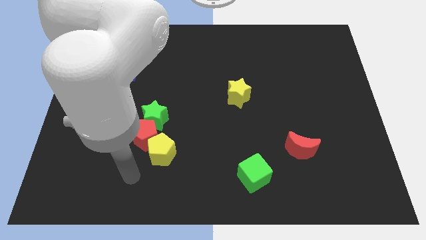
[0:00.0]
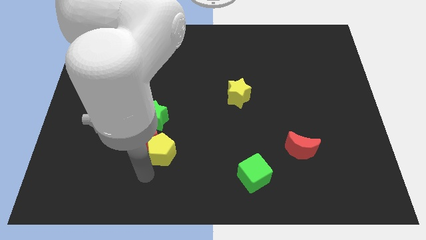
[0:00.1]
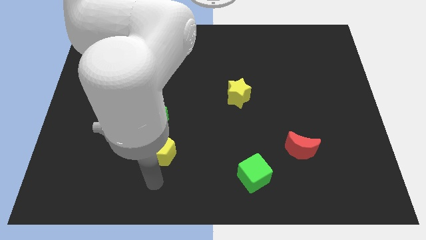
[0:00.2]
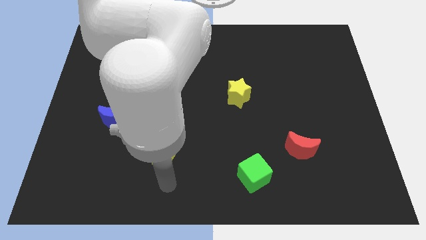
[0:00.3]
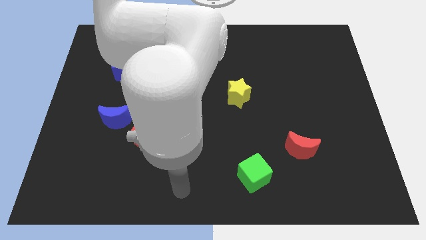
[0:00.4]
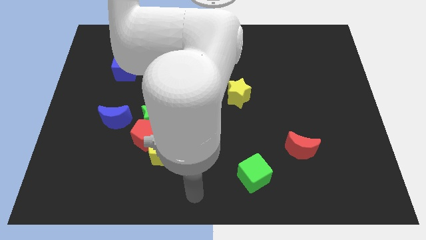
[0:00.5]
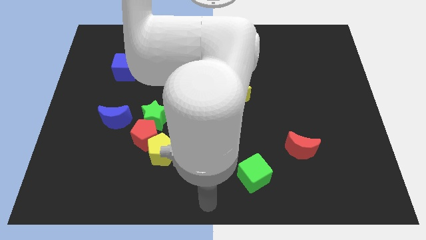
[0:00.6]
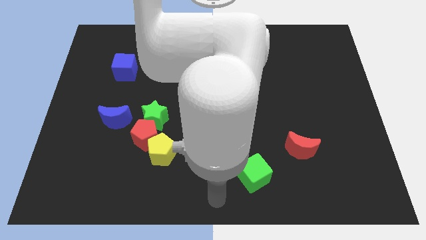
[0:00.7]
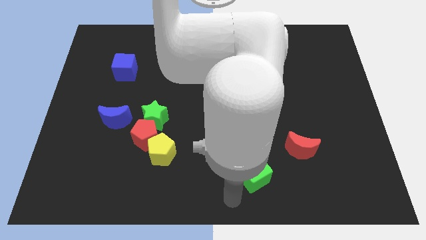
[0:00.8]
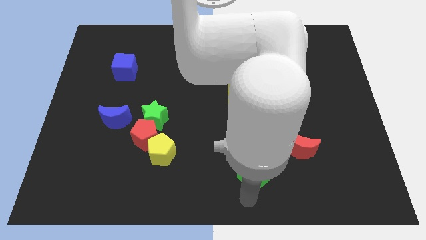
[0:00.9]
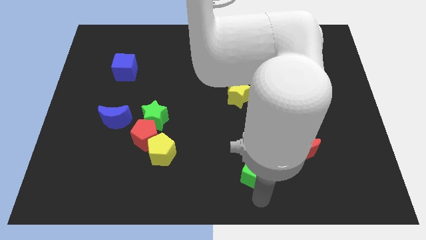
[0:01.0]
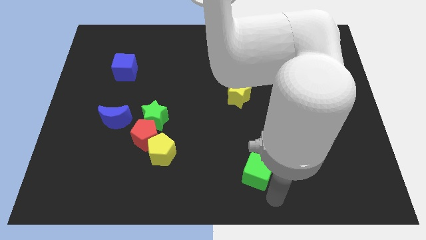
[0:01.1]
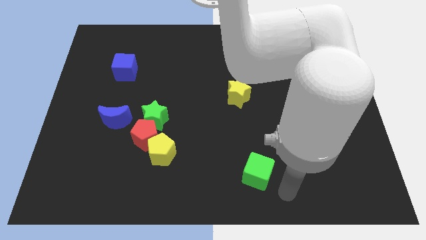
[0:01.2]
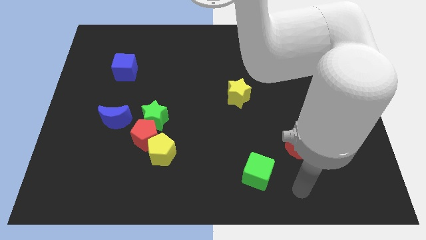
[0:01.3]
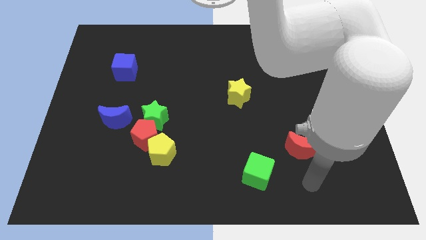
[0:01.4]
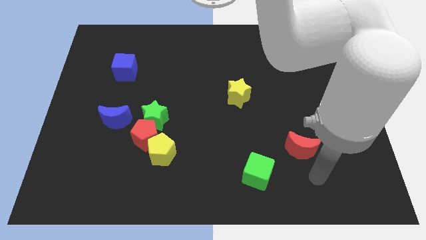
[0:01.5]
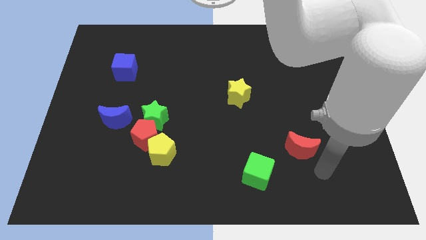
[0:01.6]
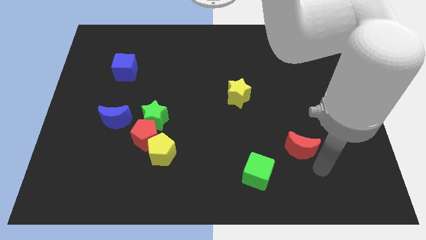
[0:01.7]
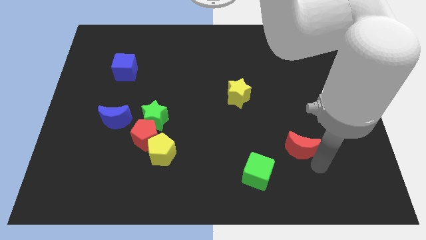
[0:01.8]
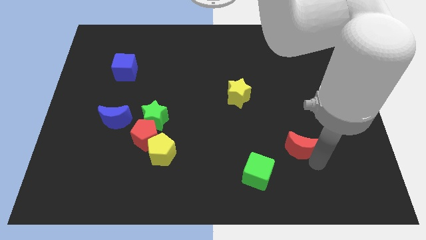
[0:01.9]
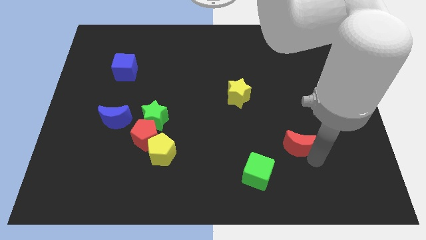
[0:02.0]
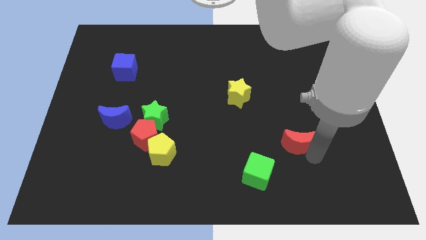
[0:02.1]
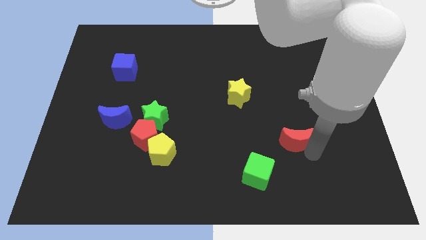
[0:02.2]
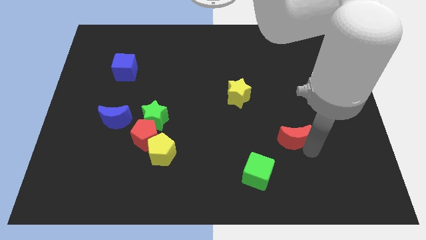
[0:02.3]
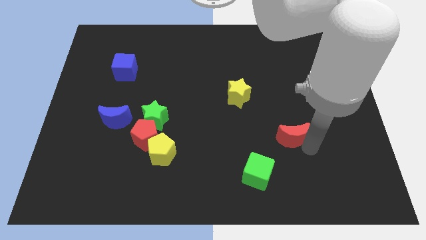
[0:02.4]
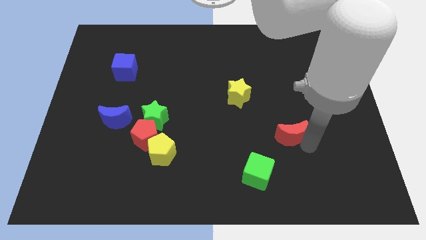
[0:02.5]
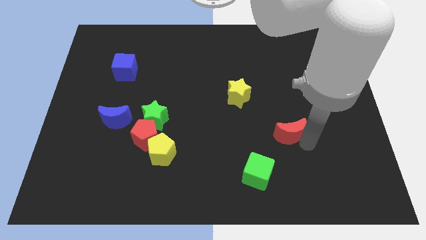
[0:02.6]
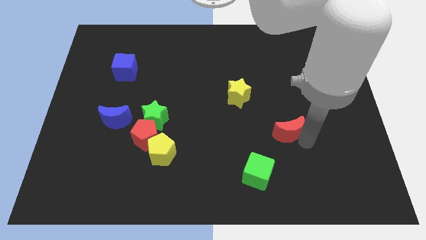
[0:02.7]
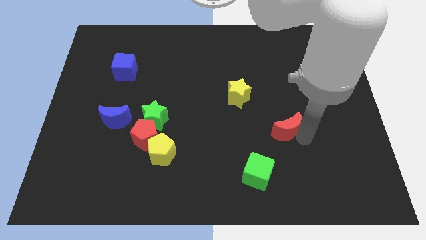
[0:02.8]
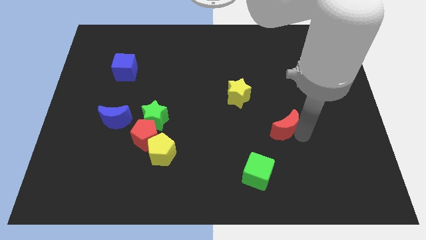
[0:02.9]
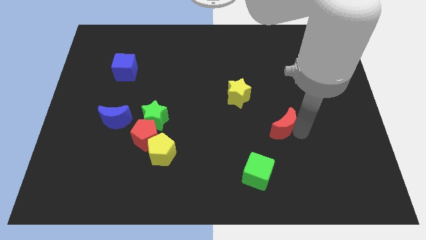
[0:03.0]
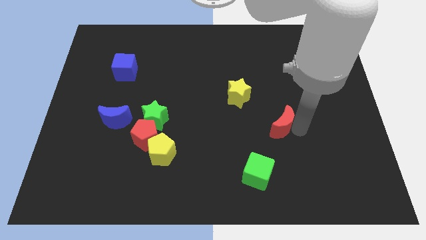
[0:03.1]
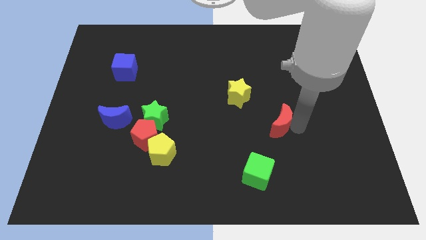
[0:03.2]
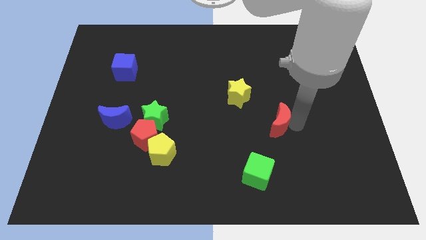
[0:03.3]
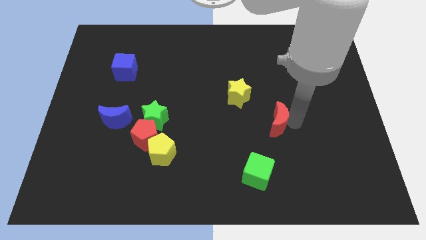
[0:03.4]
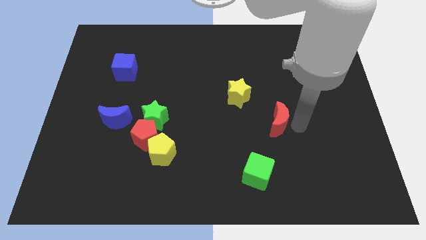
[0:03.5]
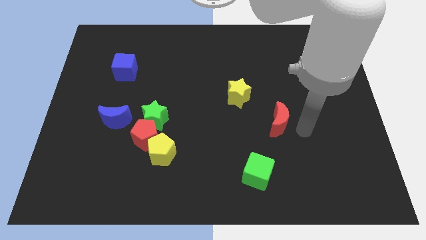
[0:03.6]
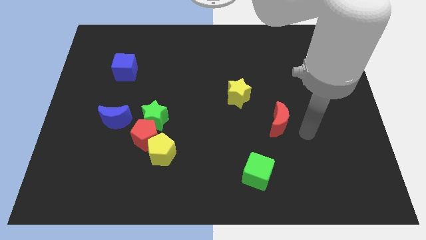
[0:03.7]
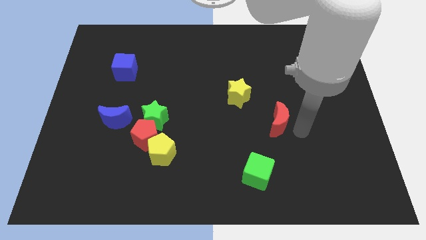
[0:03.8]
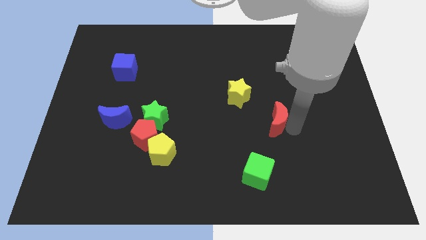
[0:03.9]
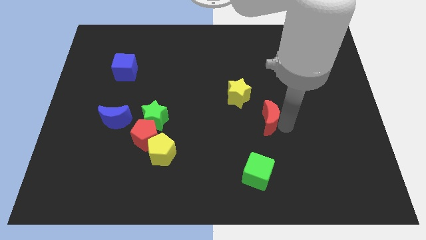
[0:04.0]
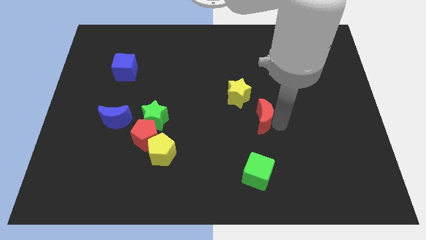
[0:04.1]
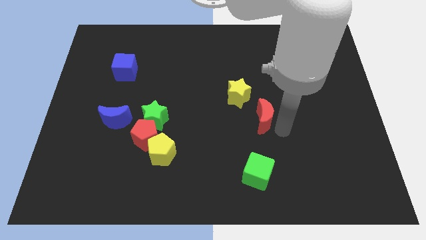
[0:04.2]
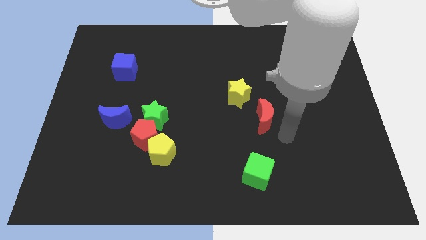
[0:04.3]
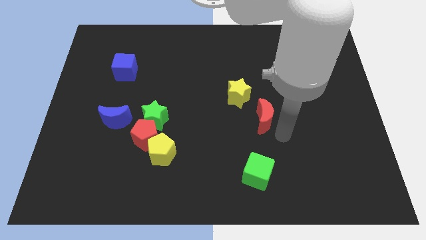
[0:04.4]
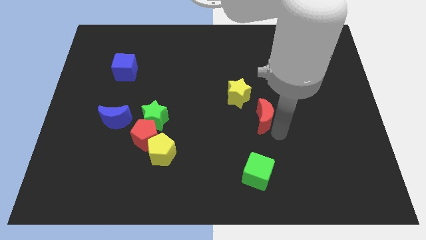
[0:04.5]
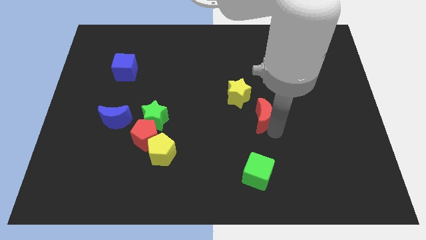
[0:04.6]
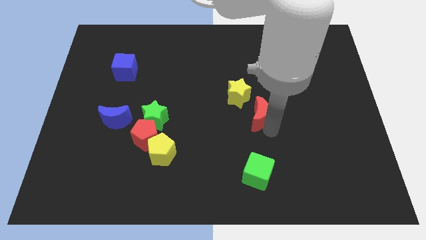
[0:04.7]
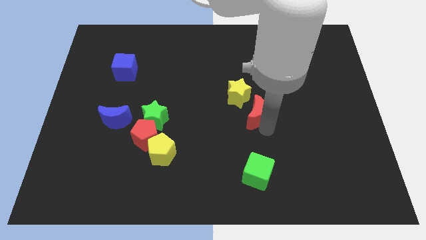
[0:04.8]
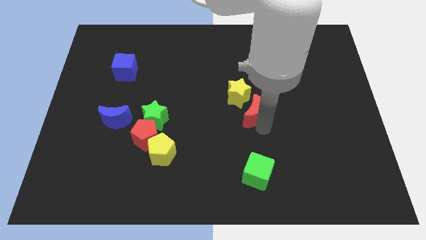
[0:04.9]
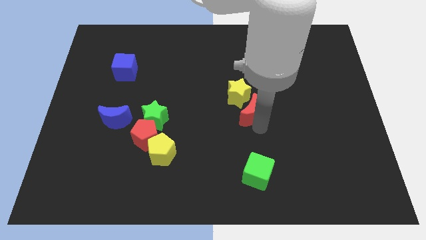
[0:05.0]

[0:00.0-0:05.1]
slide the red moon next to the yellow star

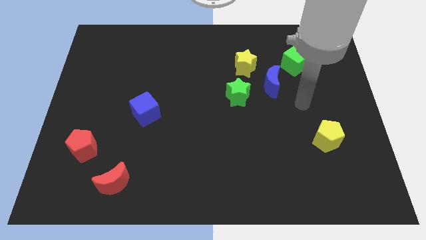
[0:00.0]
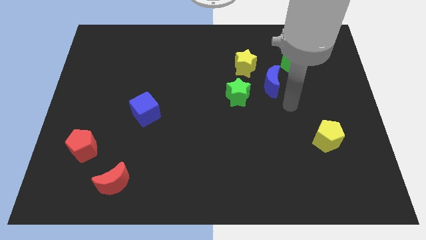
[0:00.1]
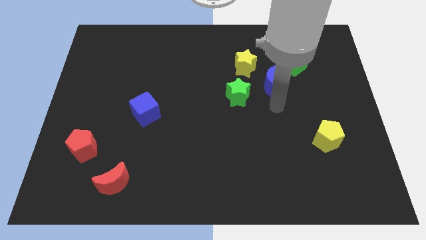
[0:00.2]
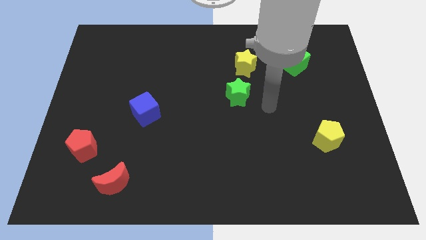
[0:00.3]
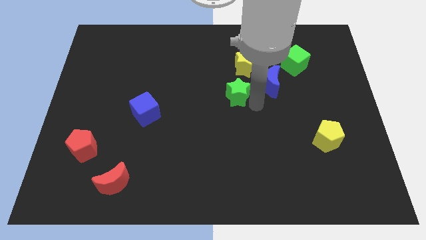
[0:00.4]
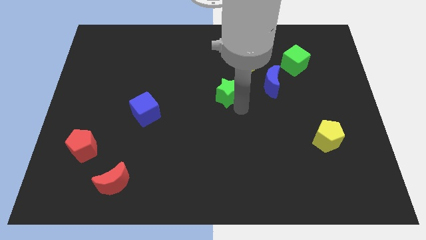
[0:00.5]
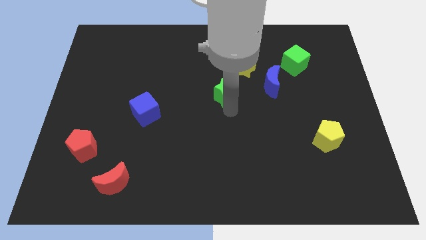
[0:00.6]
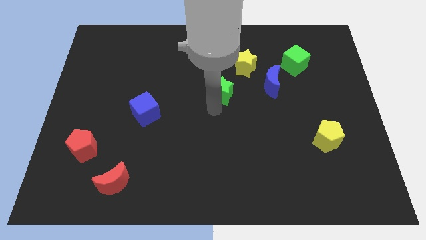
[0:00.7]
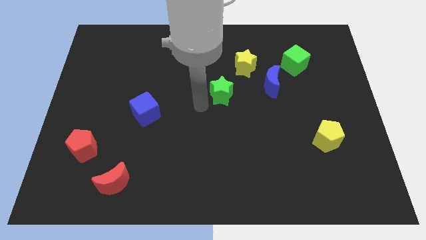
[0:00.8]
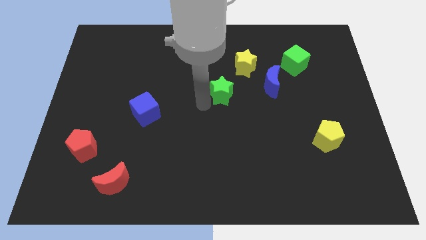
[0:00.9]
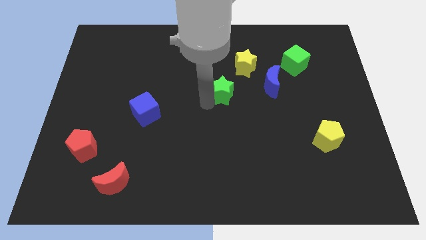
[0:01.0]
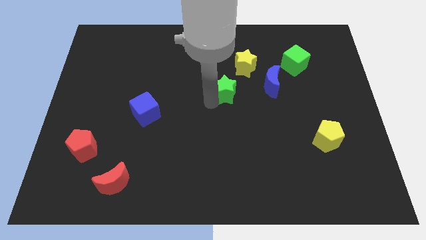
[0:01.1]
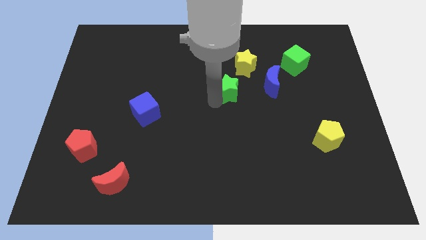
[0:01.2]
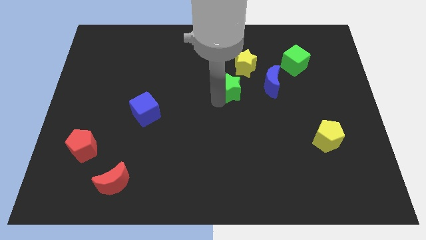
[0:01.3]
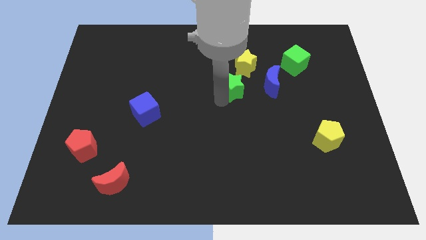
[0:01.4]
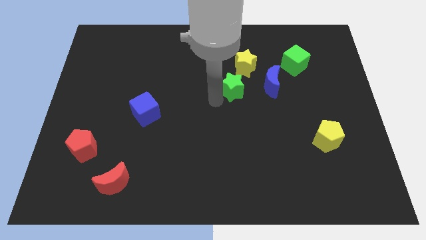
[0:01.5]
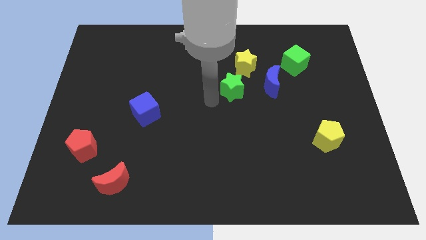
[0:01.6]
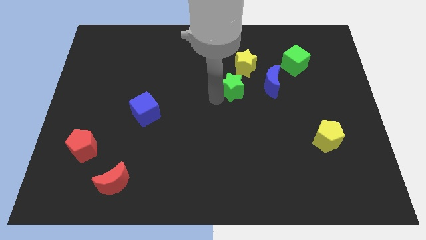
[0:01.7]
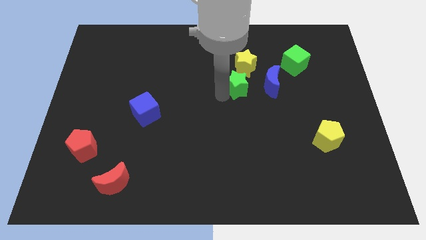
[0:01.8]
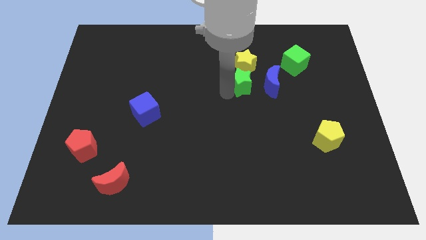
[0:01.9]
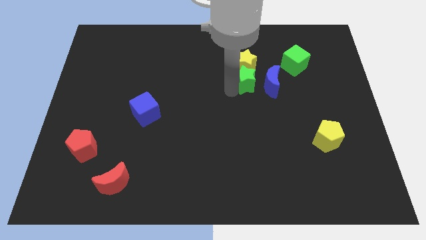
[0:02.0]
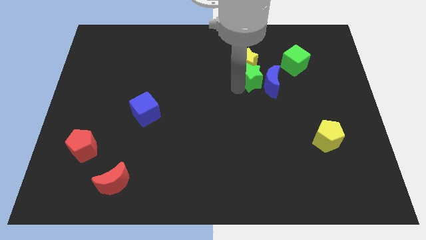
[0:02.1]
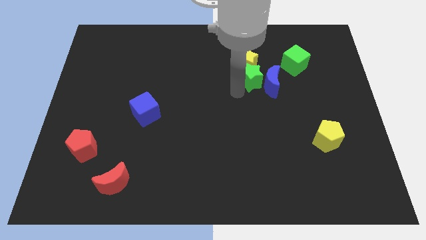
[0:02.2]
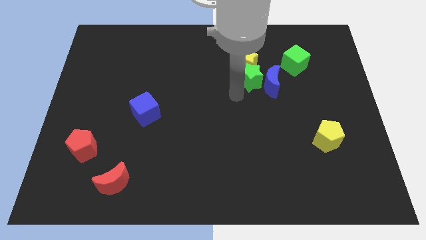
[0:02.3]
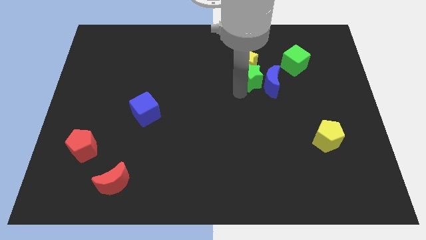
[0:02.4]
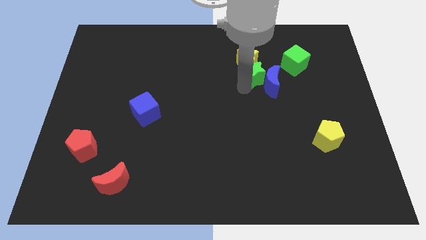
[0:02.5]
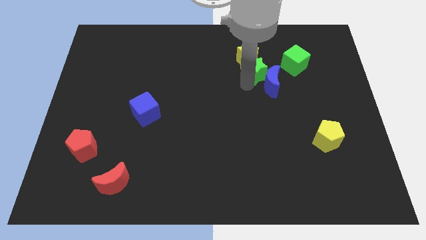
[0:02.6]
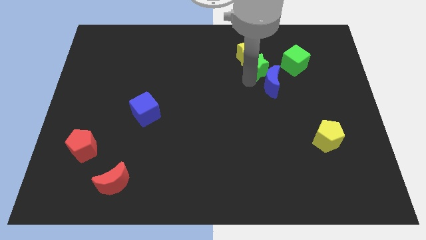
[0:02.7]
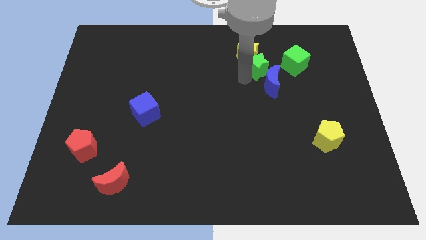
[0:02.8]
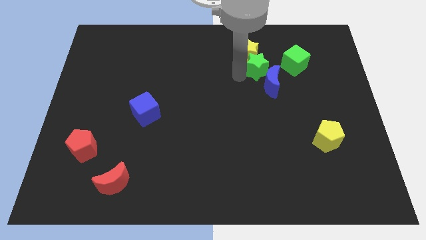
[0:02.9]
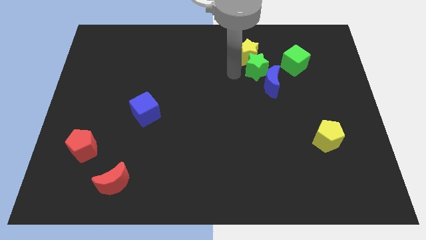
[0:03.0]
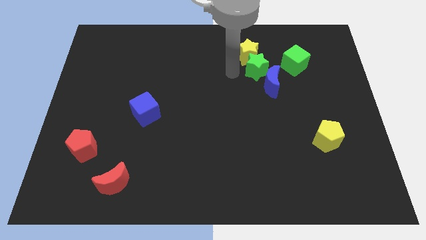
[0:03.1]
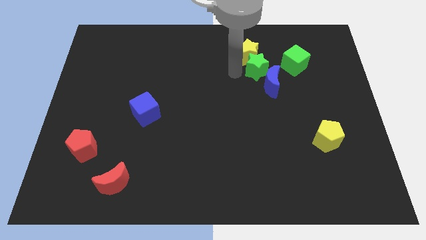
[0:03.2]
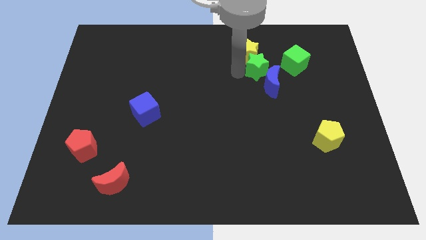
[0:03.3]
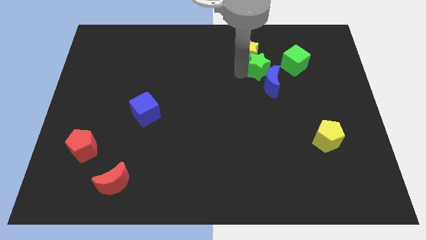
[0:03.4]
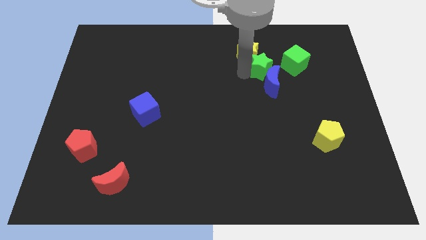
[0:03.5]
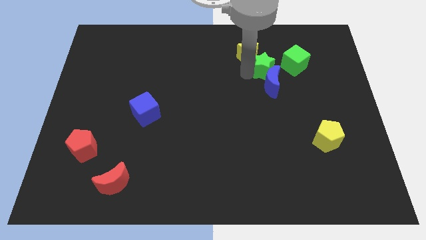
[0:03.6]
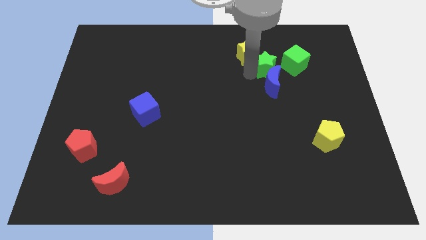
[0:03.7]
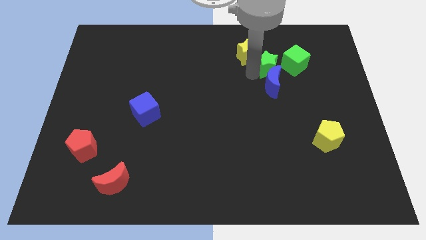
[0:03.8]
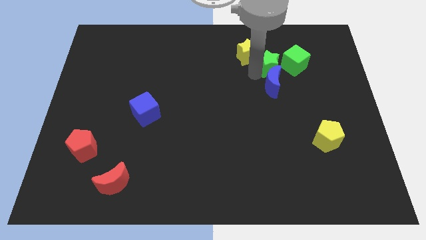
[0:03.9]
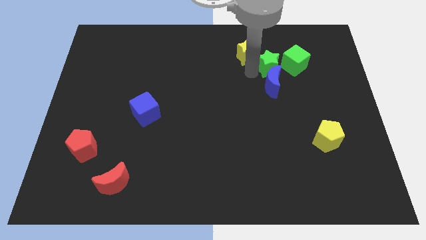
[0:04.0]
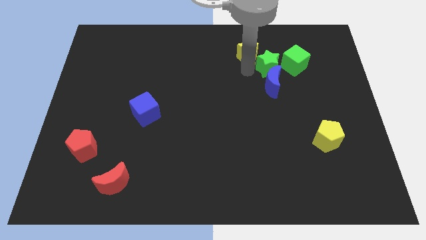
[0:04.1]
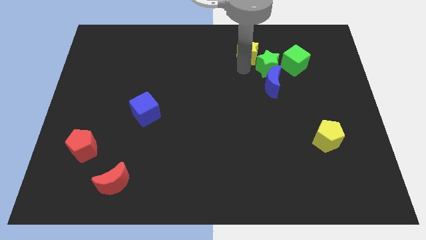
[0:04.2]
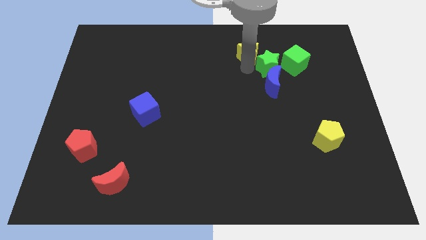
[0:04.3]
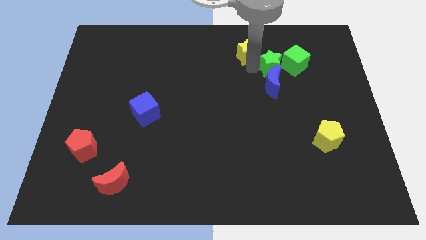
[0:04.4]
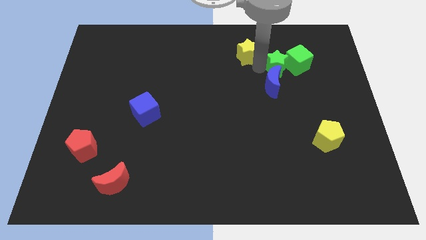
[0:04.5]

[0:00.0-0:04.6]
slide the green star next to the green cube
